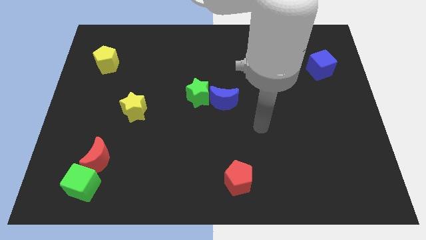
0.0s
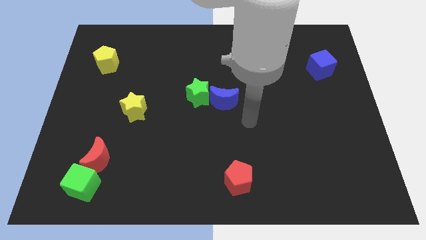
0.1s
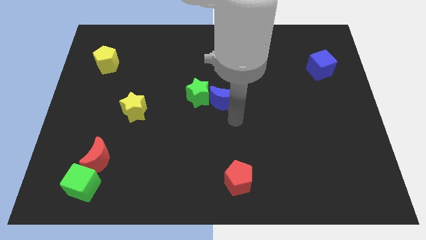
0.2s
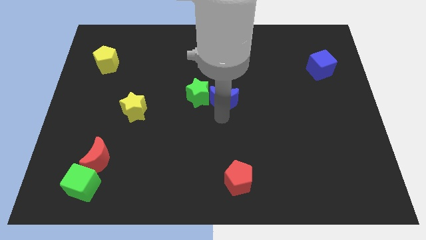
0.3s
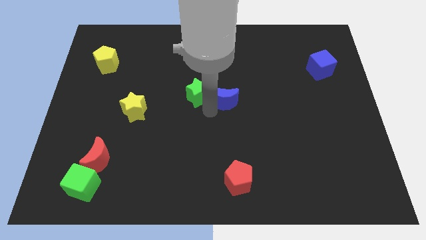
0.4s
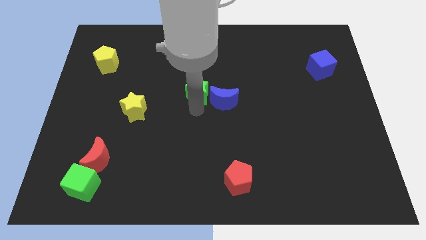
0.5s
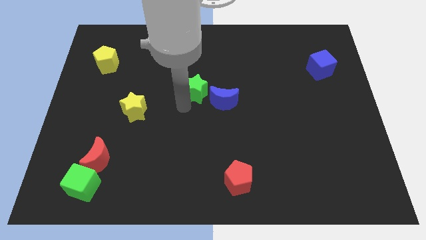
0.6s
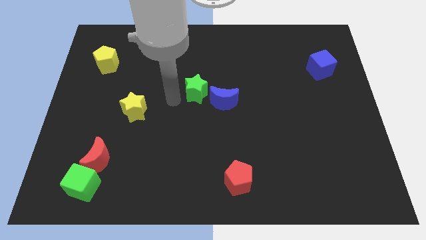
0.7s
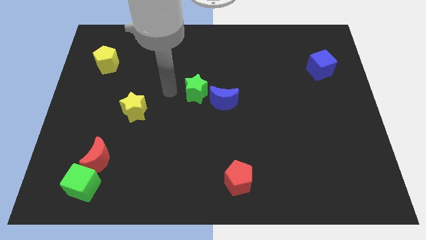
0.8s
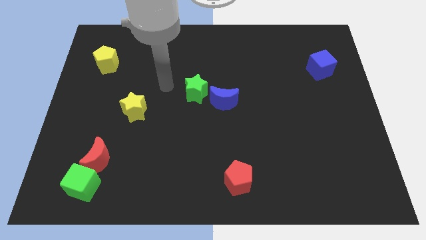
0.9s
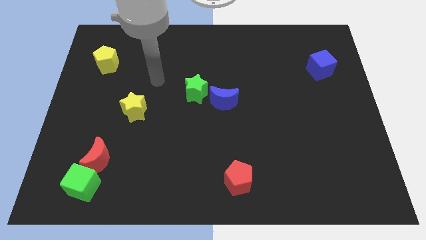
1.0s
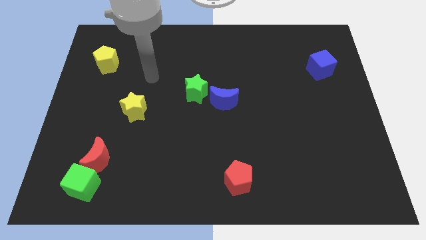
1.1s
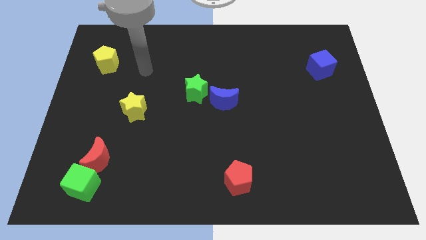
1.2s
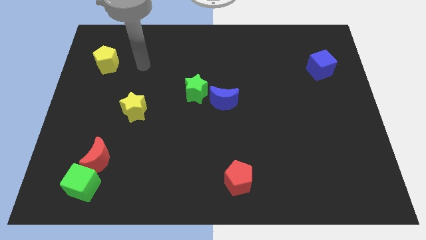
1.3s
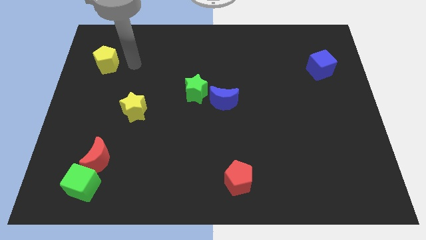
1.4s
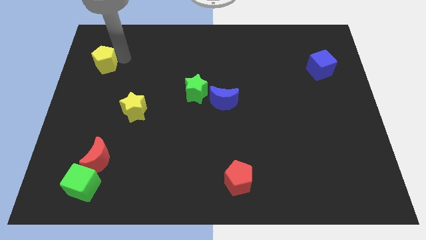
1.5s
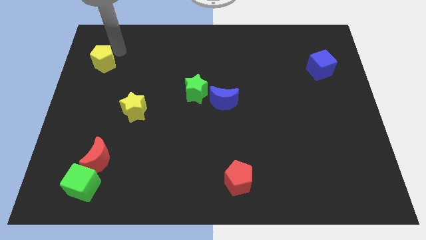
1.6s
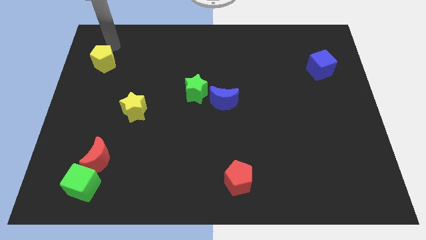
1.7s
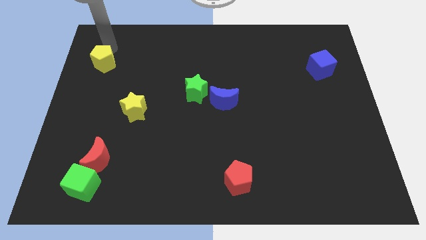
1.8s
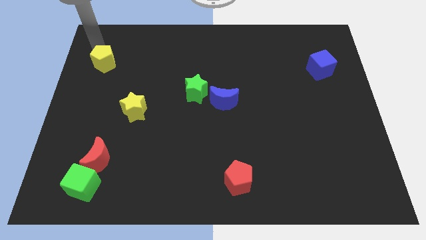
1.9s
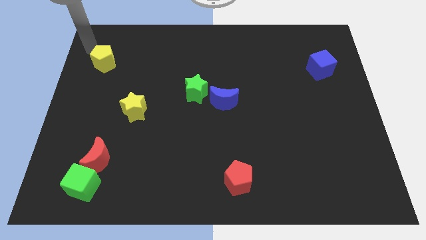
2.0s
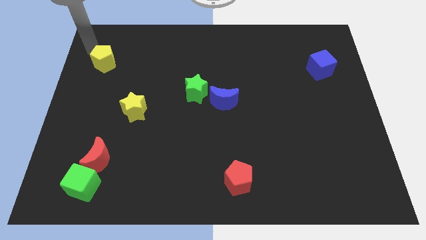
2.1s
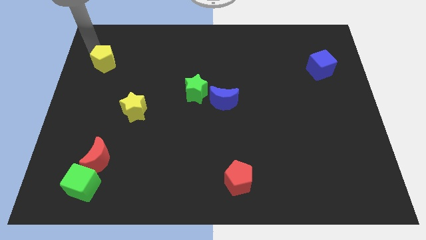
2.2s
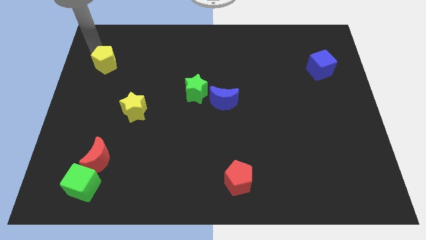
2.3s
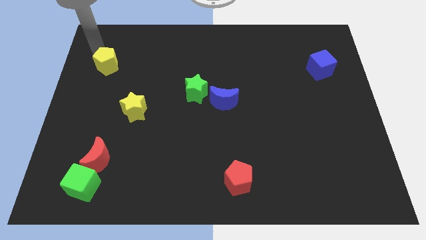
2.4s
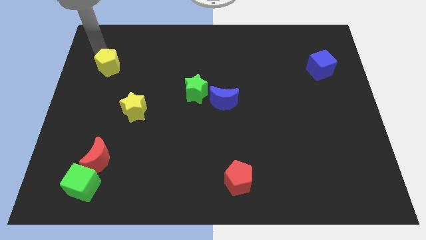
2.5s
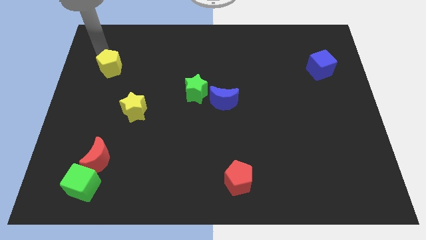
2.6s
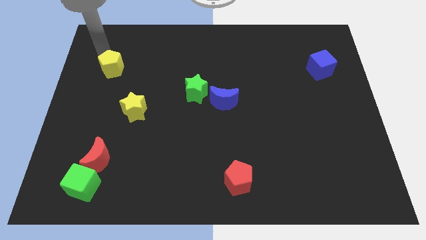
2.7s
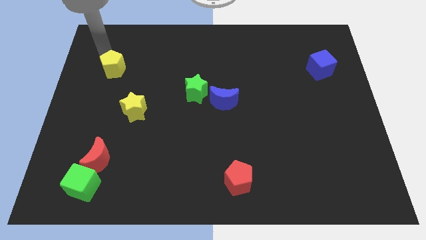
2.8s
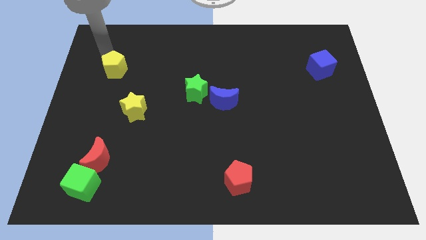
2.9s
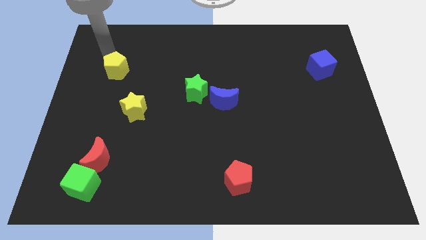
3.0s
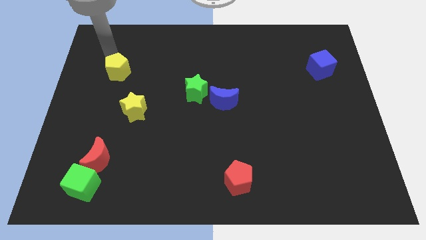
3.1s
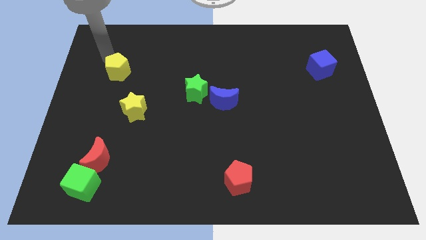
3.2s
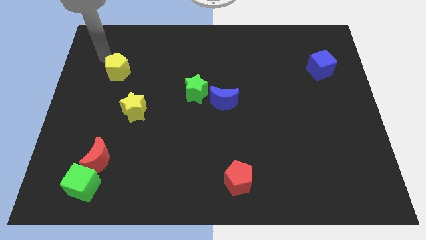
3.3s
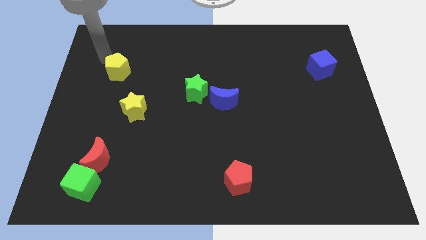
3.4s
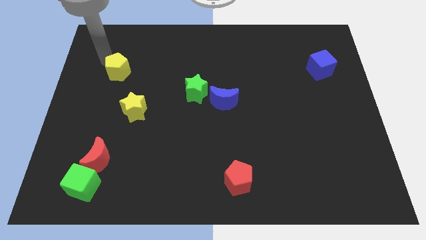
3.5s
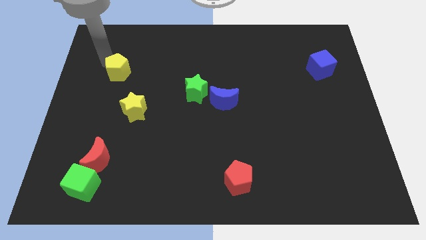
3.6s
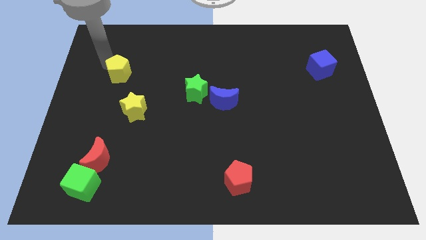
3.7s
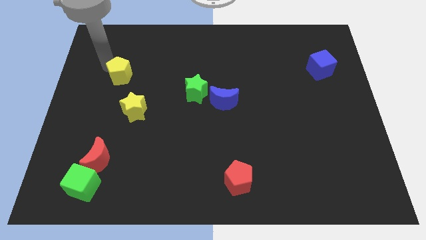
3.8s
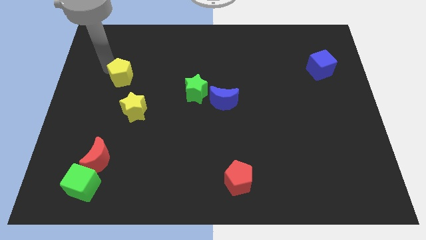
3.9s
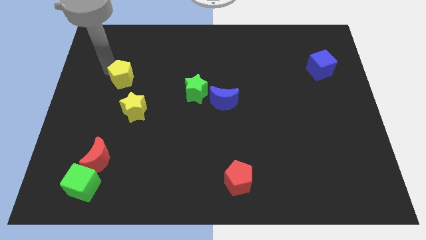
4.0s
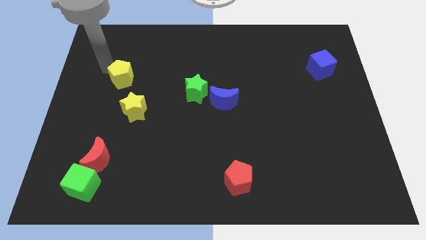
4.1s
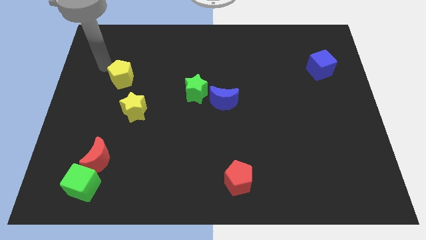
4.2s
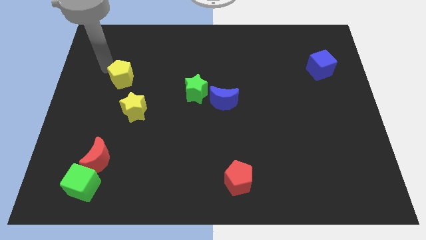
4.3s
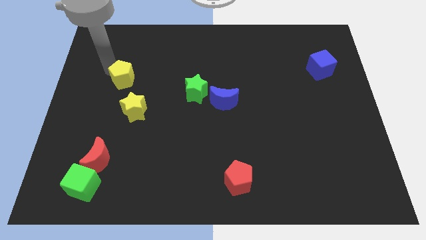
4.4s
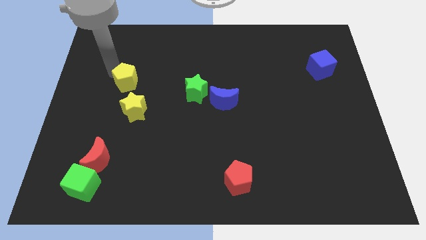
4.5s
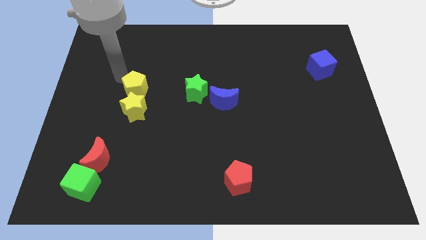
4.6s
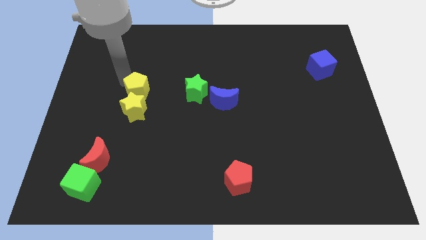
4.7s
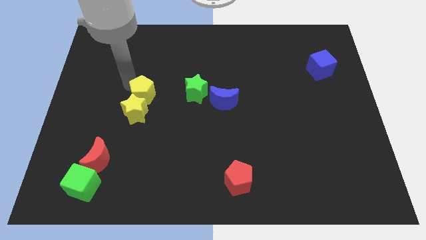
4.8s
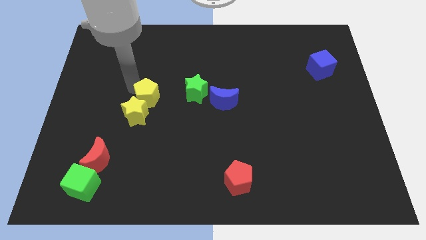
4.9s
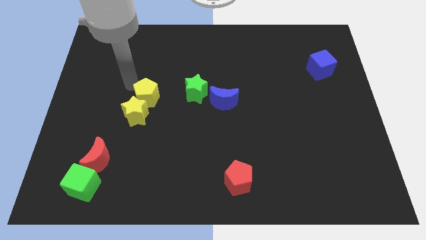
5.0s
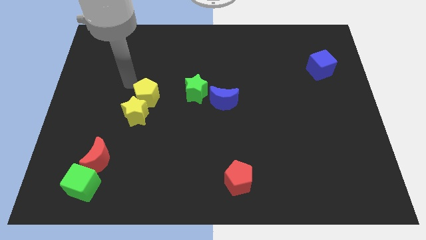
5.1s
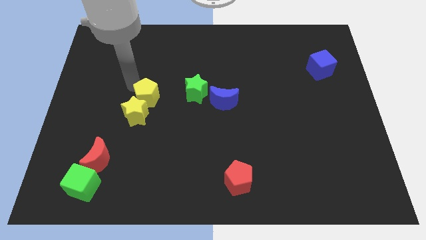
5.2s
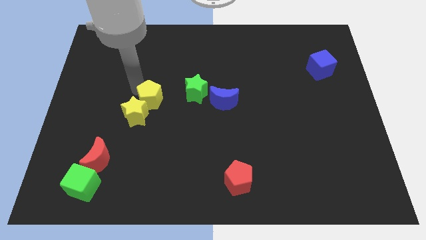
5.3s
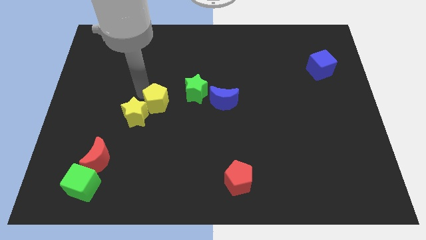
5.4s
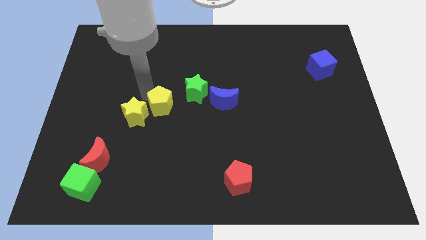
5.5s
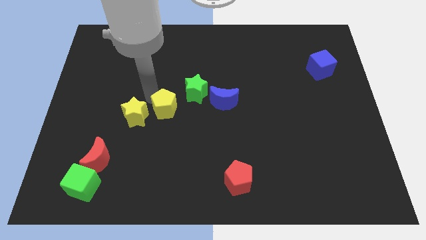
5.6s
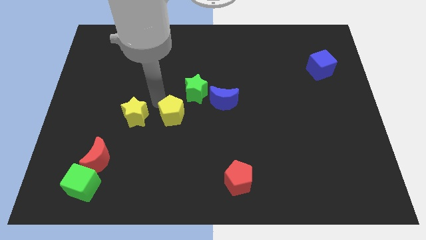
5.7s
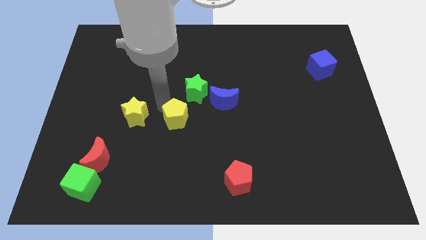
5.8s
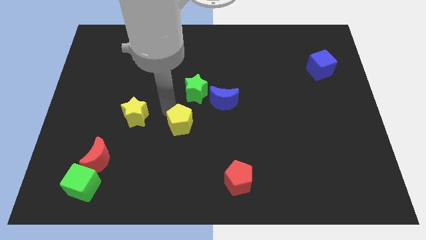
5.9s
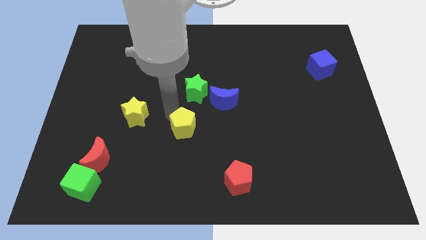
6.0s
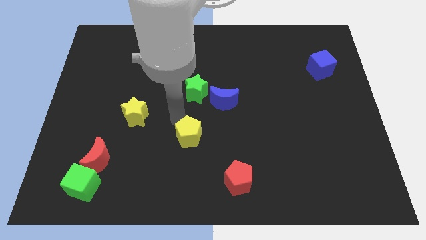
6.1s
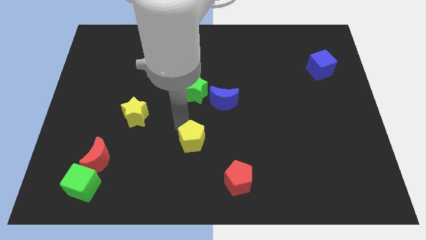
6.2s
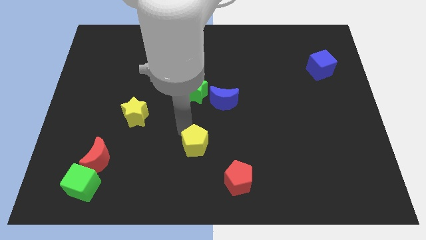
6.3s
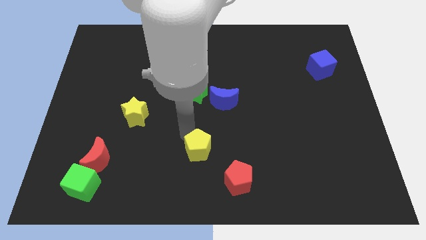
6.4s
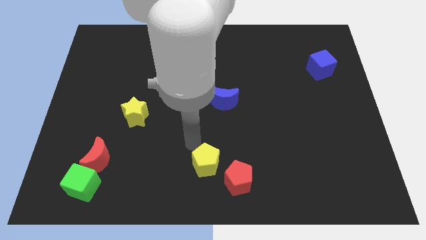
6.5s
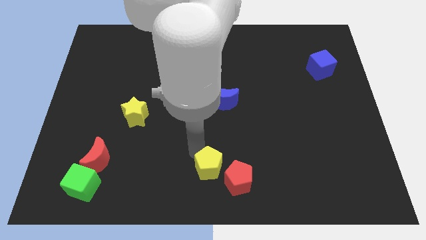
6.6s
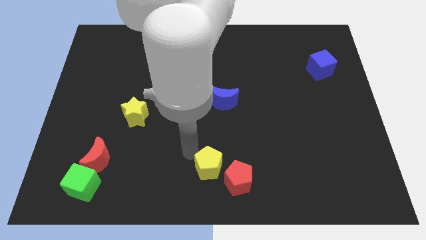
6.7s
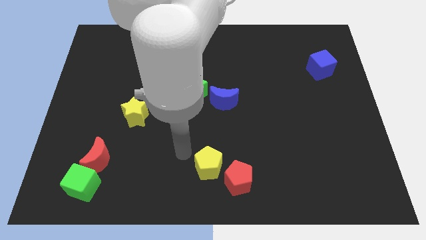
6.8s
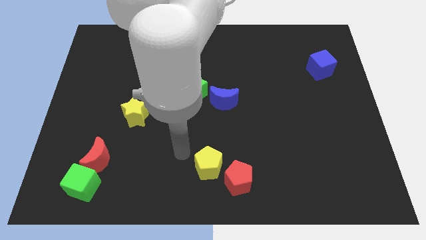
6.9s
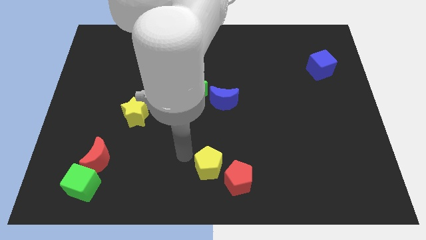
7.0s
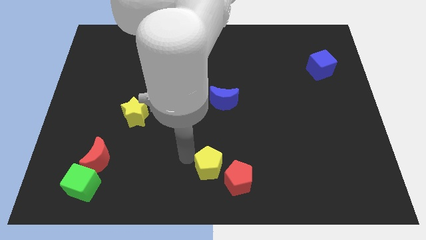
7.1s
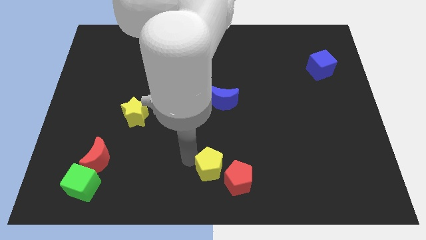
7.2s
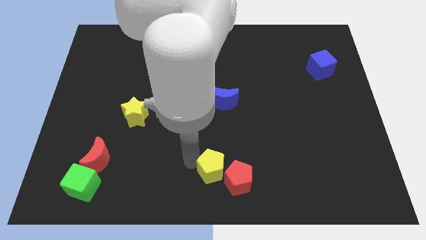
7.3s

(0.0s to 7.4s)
put the yellow pentagon next to the red pentagon
